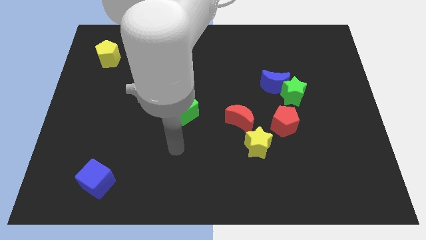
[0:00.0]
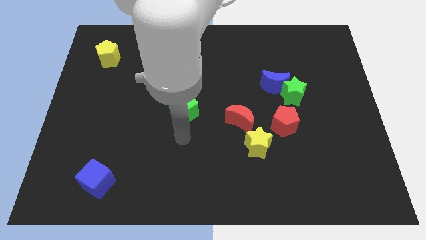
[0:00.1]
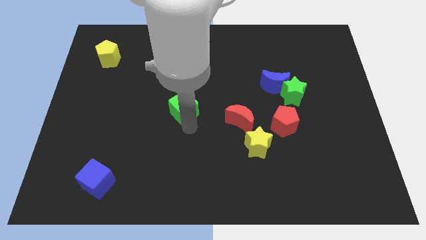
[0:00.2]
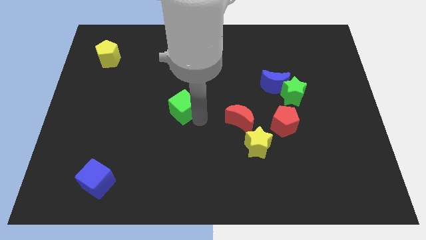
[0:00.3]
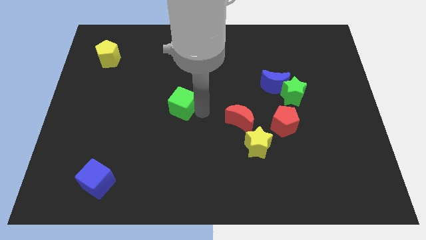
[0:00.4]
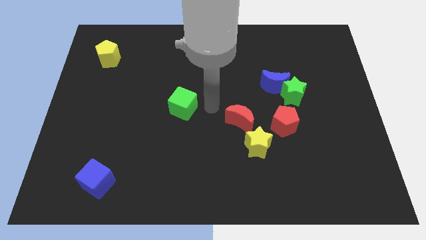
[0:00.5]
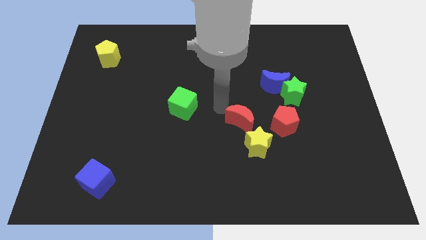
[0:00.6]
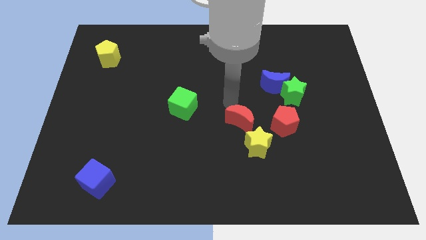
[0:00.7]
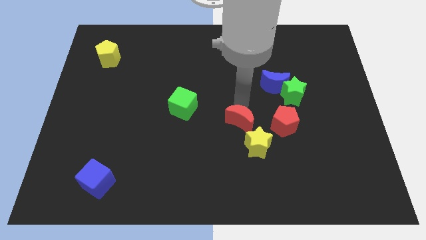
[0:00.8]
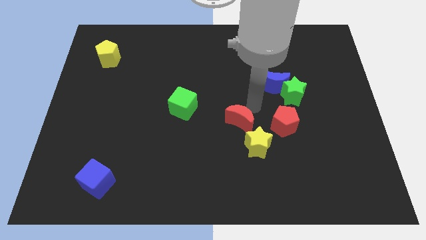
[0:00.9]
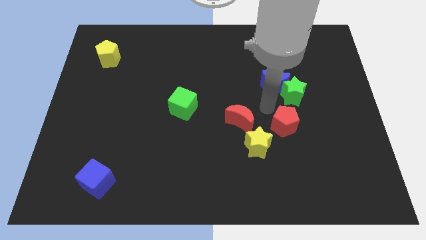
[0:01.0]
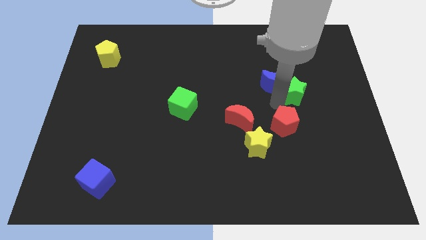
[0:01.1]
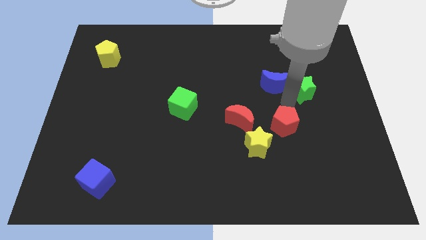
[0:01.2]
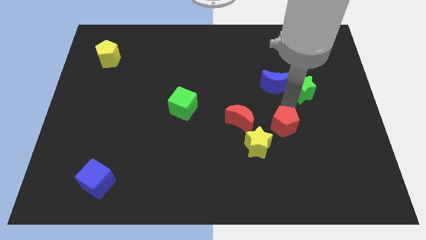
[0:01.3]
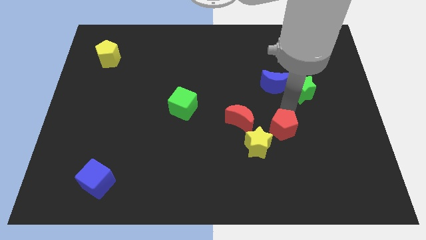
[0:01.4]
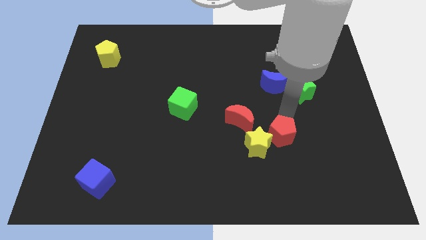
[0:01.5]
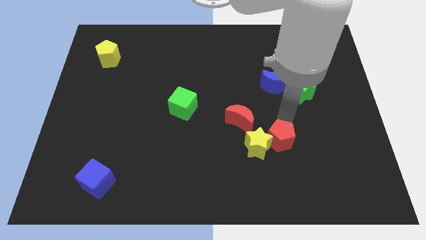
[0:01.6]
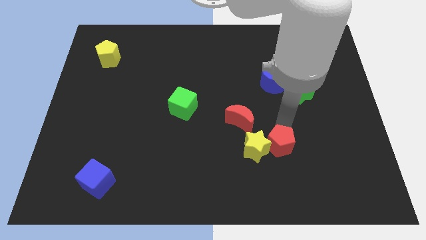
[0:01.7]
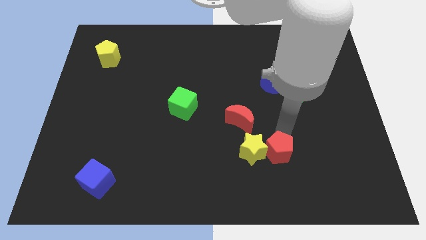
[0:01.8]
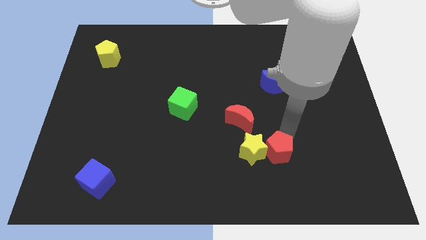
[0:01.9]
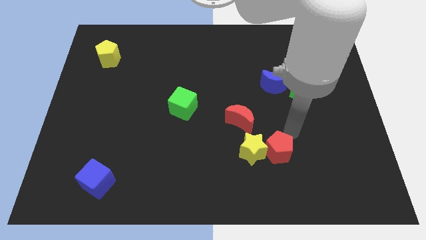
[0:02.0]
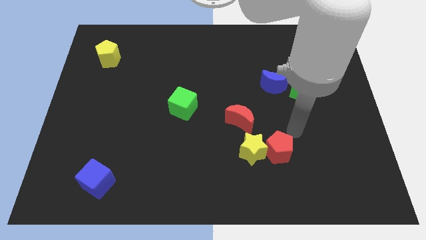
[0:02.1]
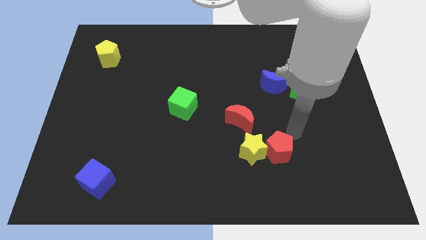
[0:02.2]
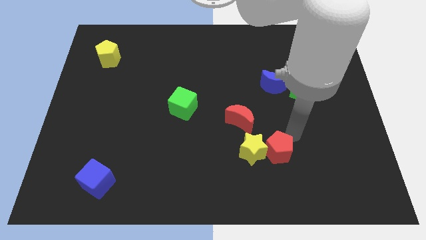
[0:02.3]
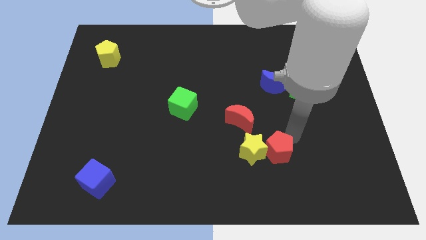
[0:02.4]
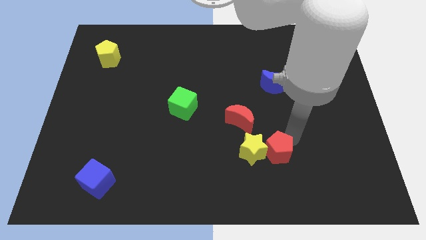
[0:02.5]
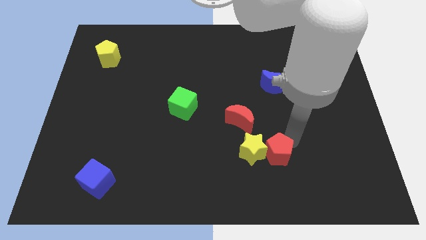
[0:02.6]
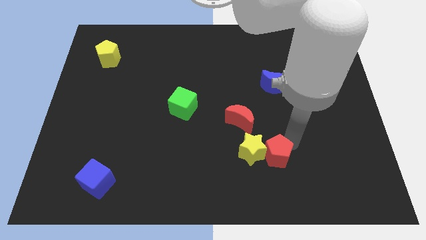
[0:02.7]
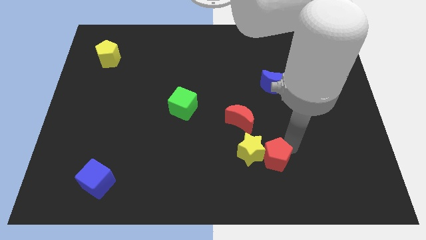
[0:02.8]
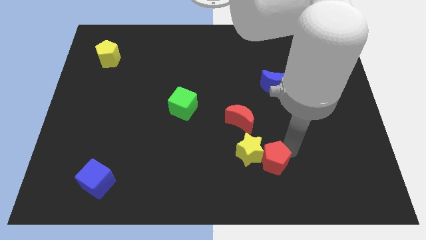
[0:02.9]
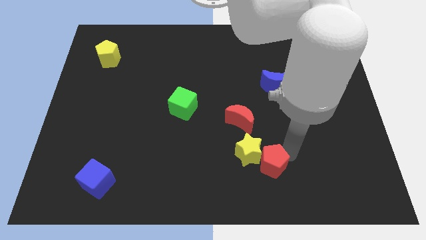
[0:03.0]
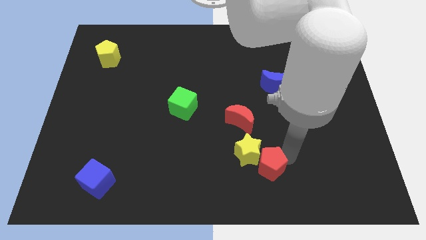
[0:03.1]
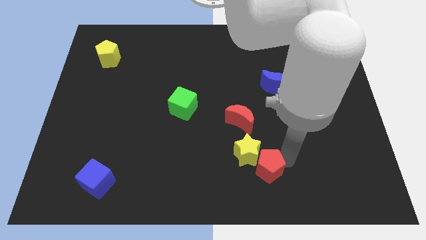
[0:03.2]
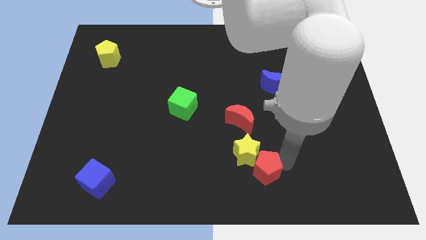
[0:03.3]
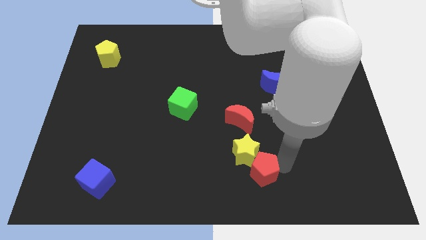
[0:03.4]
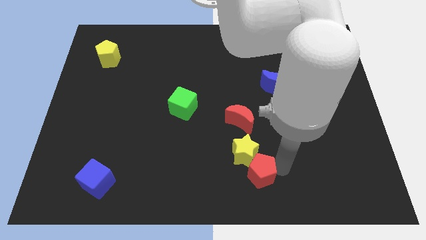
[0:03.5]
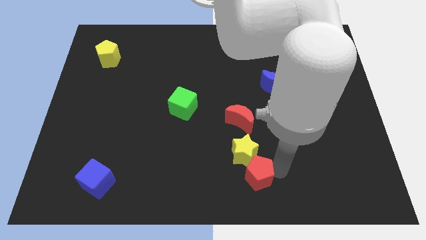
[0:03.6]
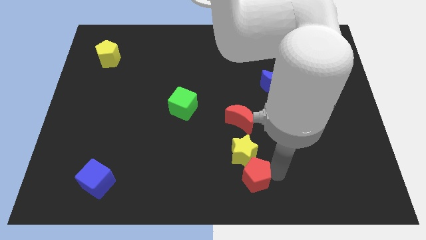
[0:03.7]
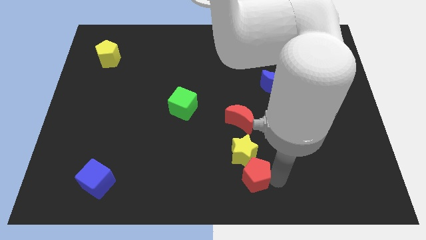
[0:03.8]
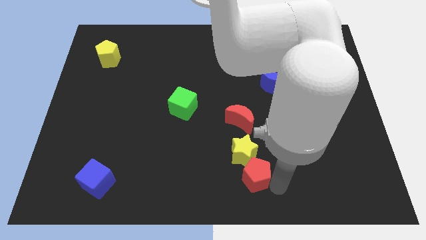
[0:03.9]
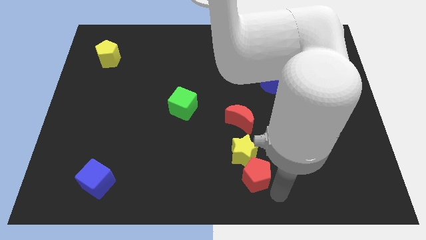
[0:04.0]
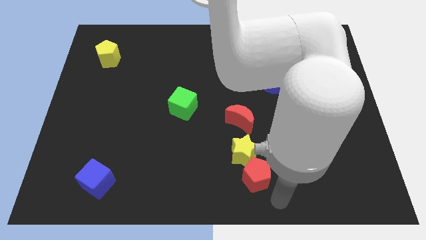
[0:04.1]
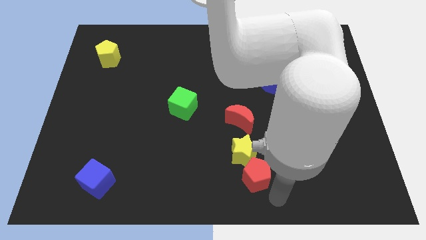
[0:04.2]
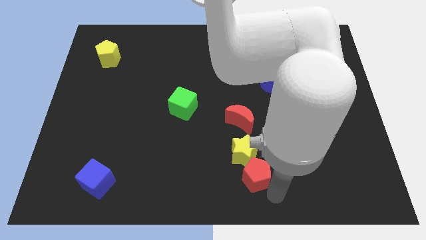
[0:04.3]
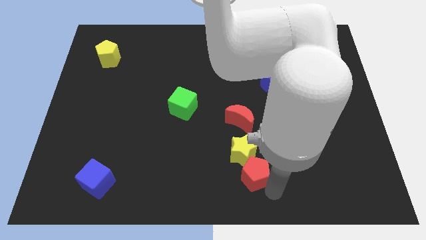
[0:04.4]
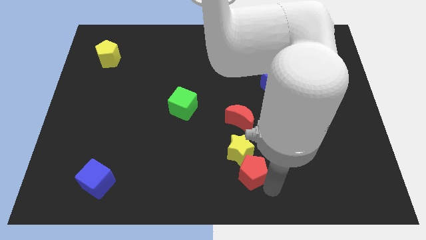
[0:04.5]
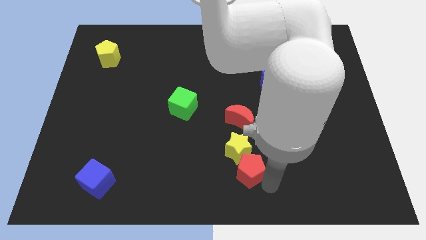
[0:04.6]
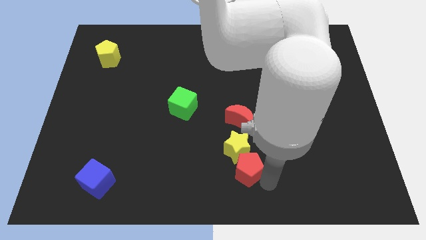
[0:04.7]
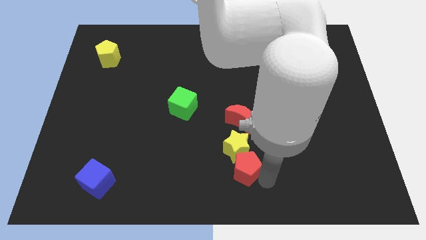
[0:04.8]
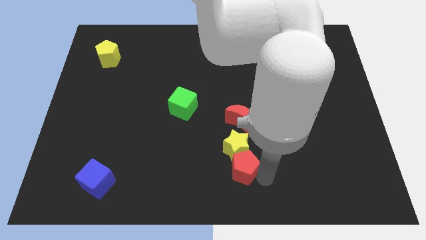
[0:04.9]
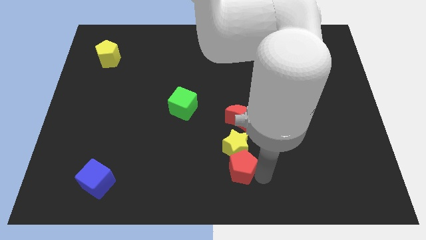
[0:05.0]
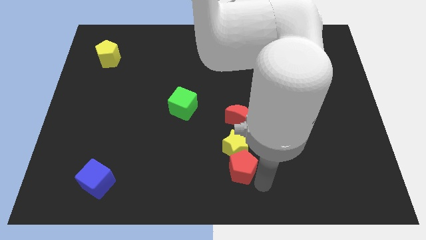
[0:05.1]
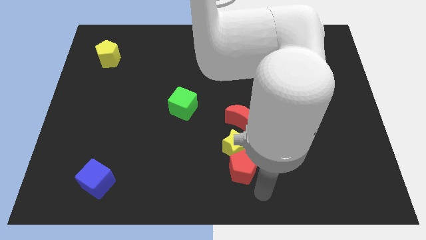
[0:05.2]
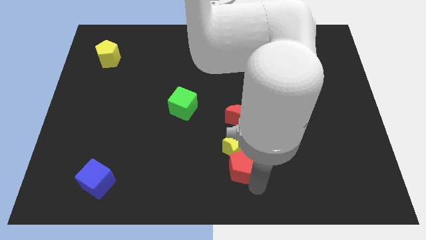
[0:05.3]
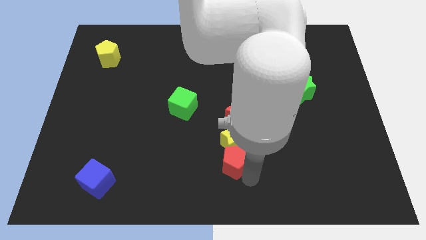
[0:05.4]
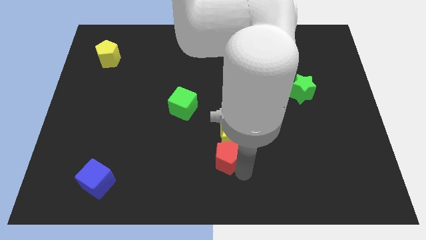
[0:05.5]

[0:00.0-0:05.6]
move the red pentagon diagonally down and to the left of the red moon
